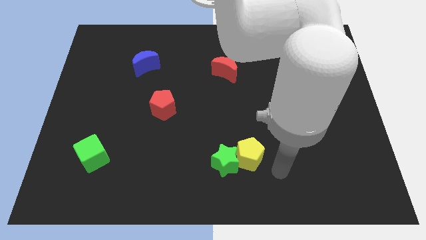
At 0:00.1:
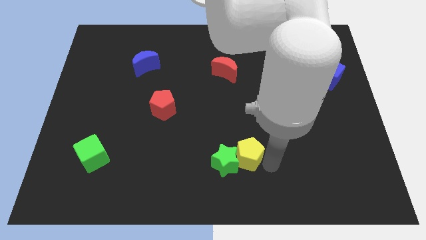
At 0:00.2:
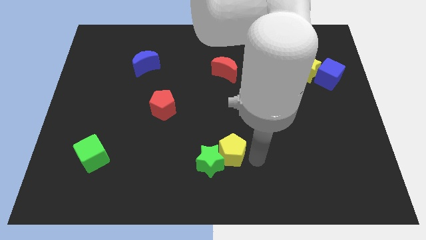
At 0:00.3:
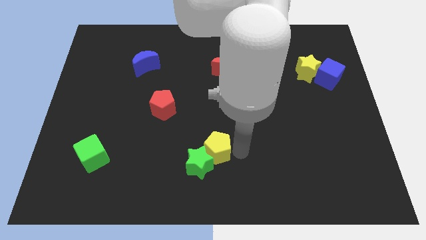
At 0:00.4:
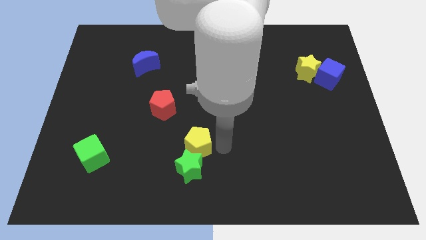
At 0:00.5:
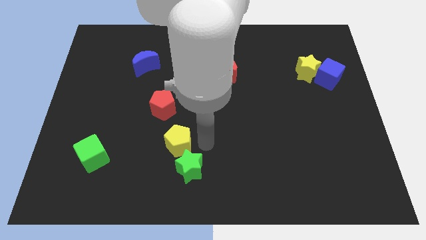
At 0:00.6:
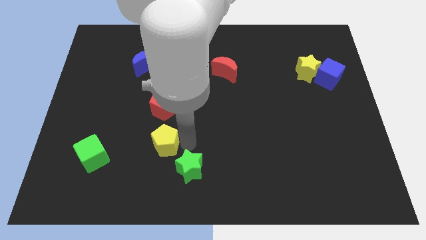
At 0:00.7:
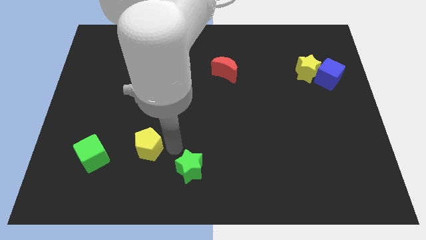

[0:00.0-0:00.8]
pull the green star apart from the yellow pentagon

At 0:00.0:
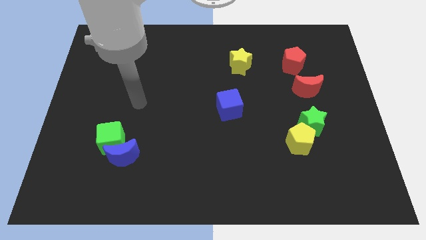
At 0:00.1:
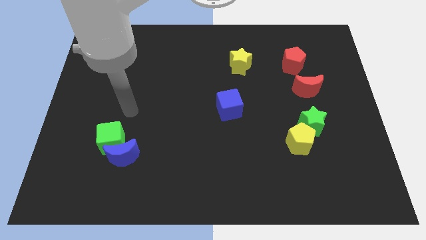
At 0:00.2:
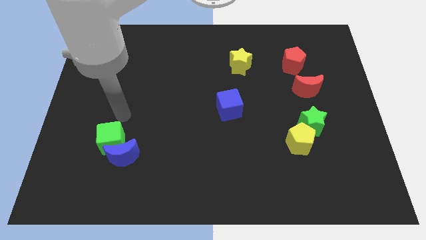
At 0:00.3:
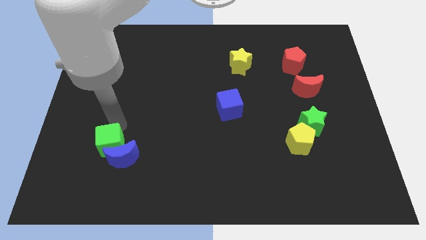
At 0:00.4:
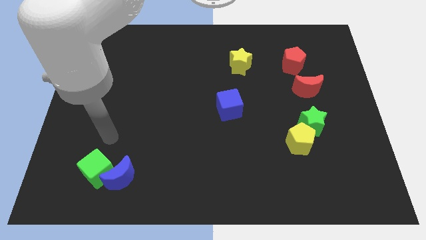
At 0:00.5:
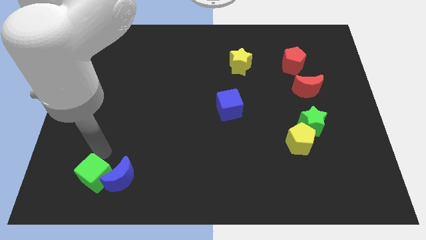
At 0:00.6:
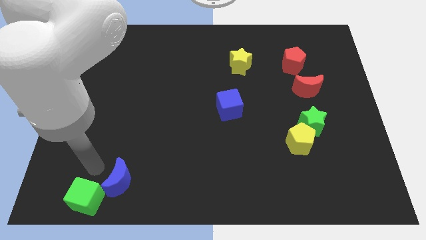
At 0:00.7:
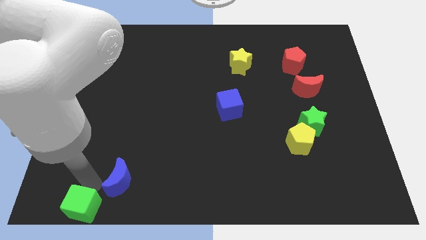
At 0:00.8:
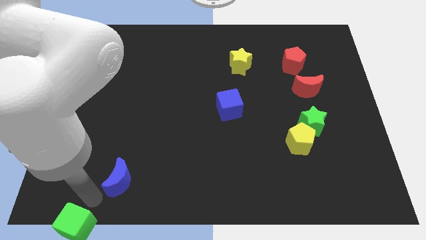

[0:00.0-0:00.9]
separate the blue moon from the green cube

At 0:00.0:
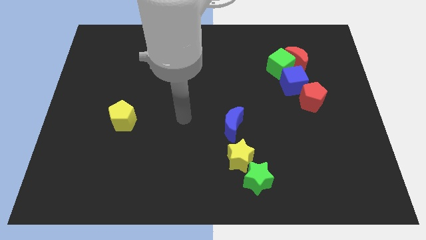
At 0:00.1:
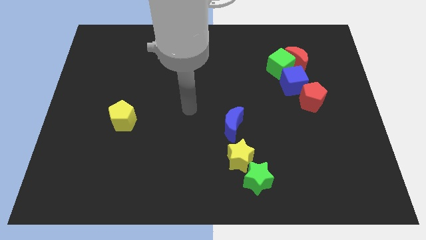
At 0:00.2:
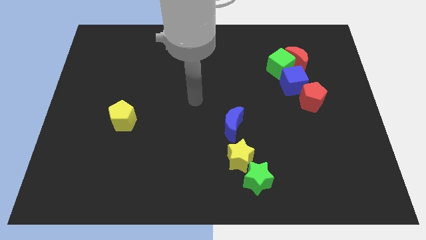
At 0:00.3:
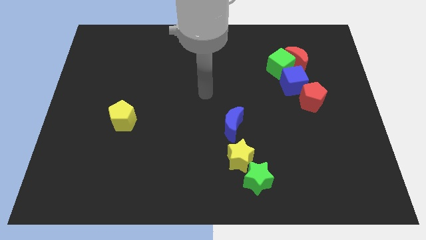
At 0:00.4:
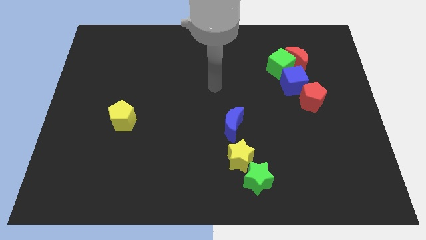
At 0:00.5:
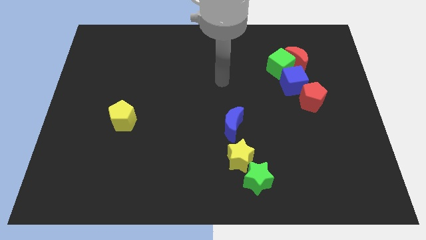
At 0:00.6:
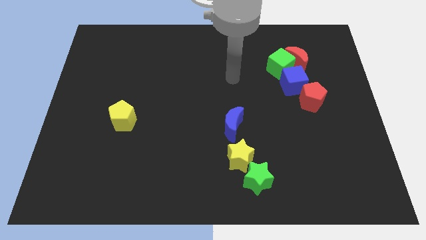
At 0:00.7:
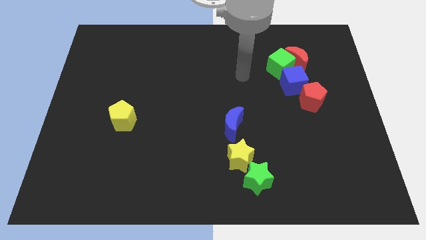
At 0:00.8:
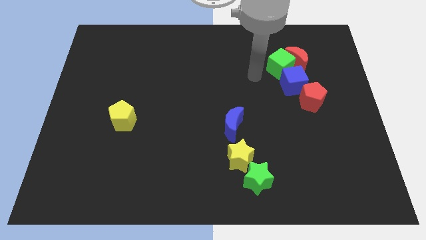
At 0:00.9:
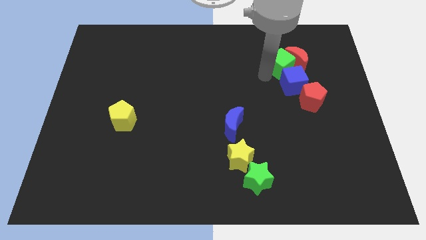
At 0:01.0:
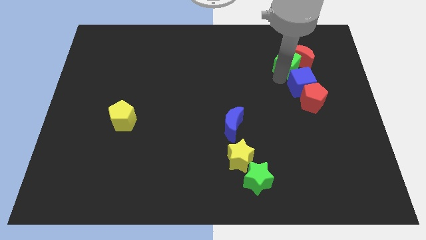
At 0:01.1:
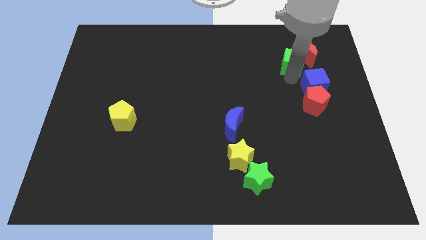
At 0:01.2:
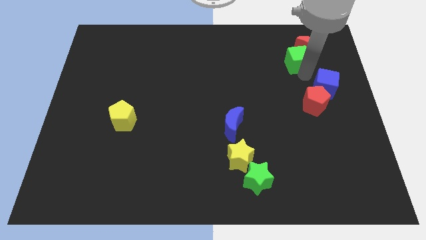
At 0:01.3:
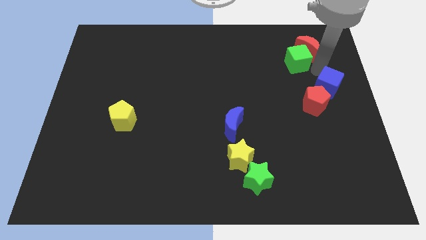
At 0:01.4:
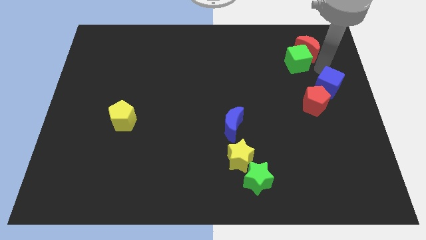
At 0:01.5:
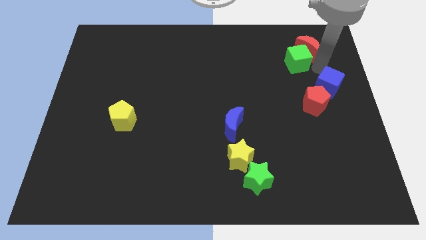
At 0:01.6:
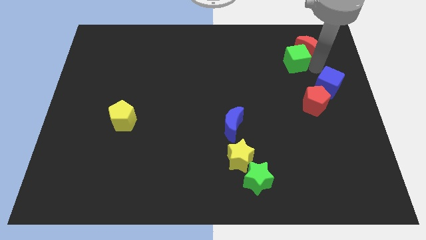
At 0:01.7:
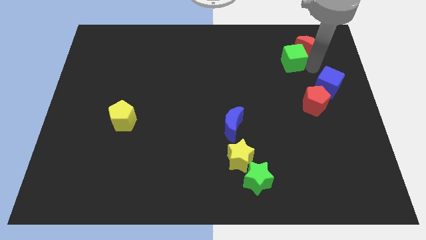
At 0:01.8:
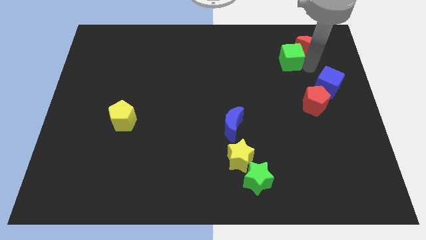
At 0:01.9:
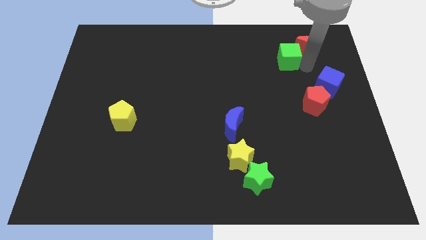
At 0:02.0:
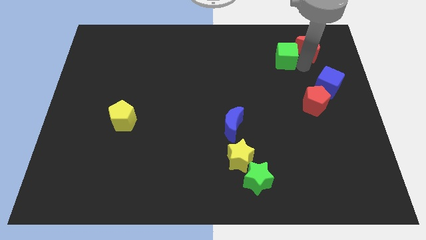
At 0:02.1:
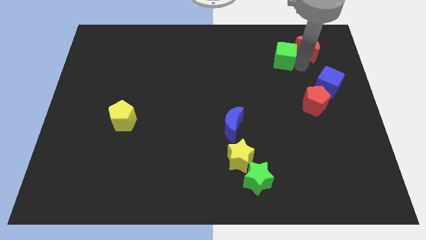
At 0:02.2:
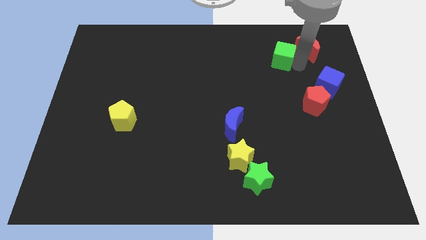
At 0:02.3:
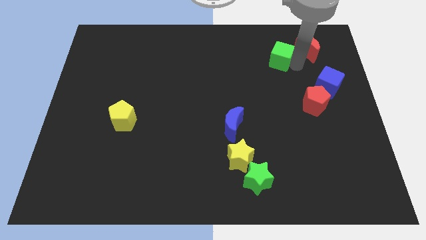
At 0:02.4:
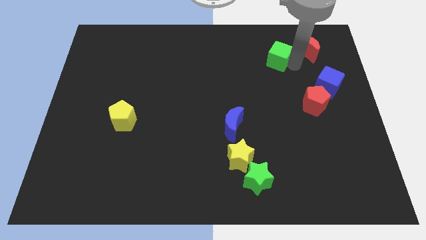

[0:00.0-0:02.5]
move the green cube away from the red moon and blue cube

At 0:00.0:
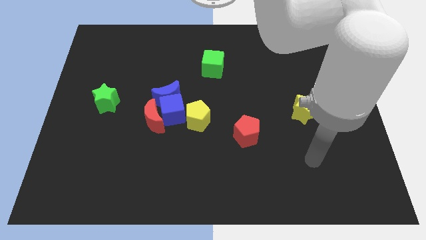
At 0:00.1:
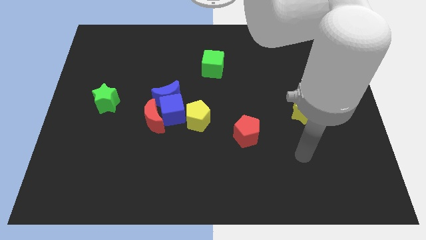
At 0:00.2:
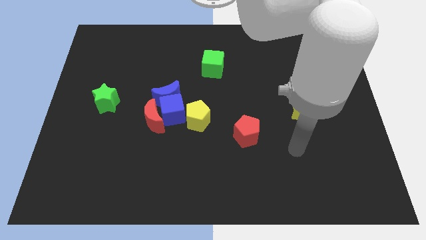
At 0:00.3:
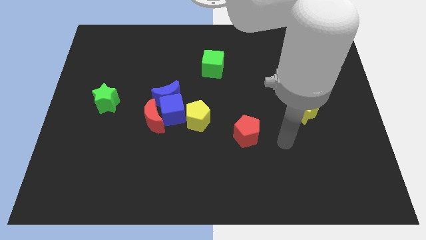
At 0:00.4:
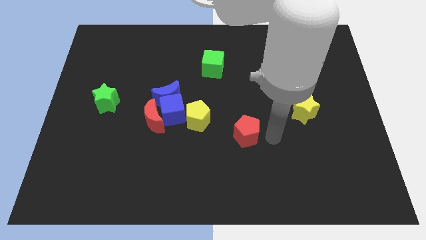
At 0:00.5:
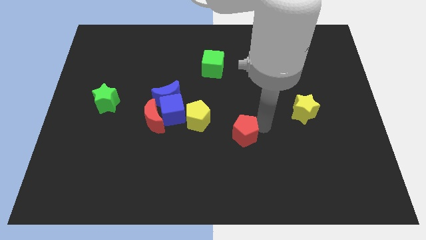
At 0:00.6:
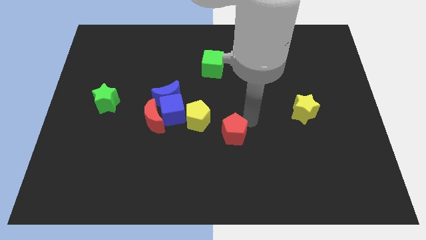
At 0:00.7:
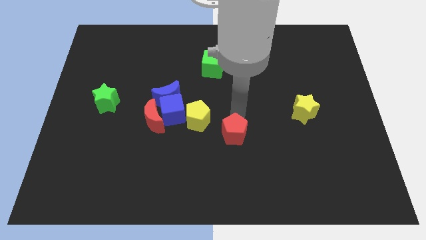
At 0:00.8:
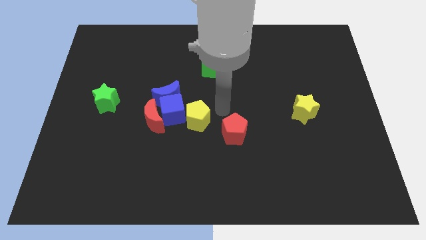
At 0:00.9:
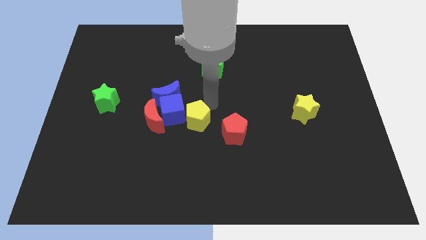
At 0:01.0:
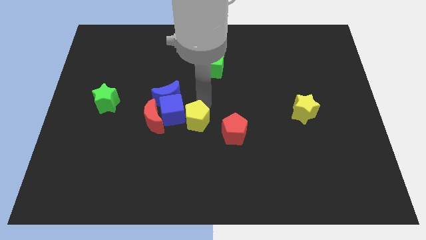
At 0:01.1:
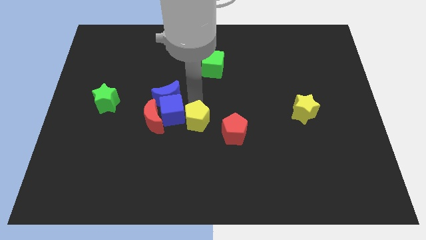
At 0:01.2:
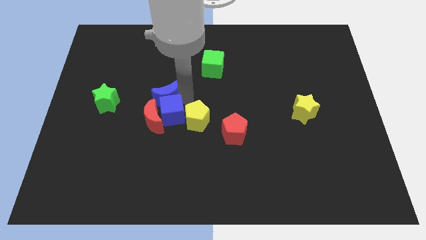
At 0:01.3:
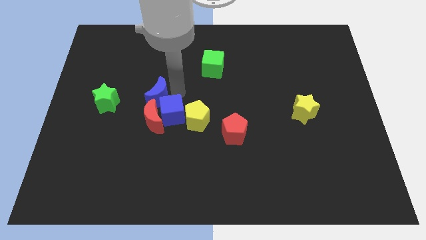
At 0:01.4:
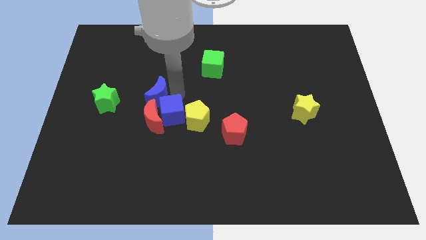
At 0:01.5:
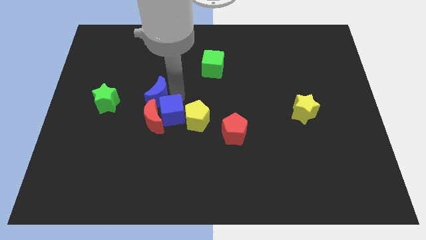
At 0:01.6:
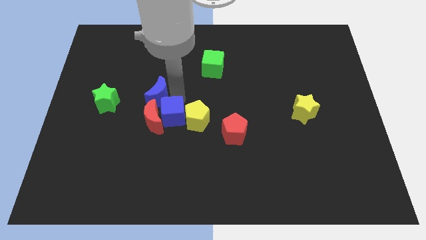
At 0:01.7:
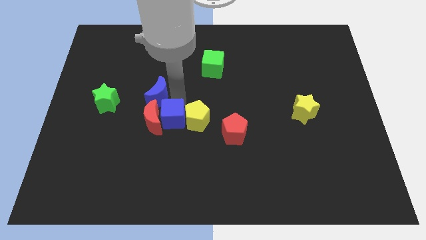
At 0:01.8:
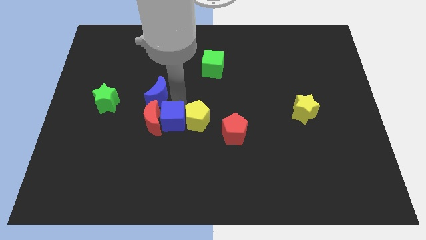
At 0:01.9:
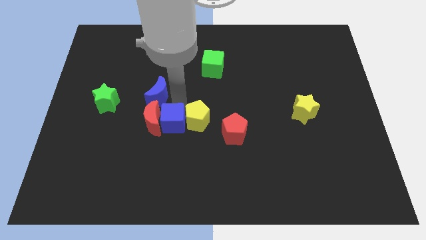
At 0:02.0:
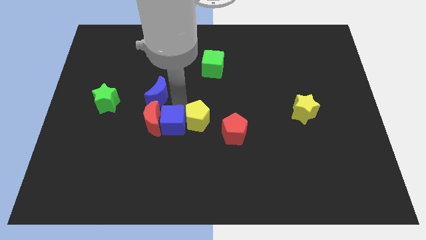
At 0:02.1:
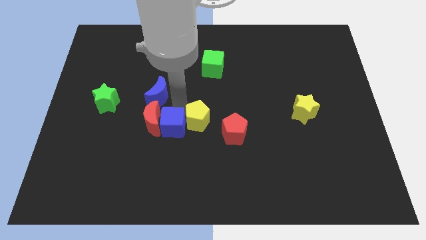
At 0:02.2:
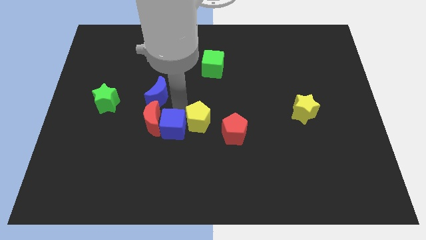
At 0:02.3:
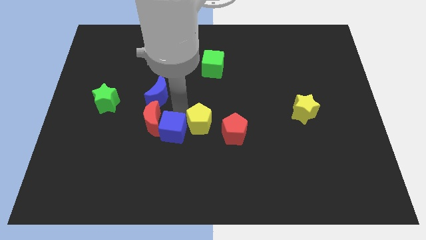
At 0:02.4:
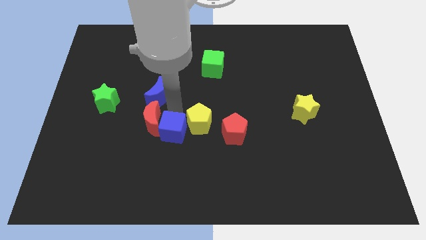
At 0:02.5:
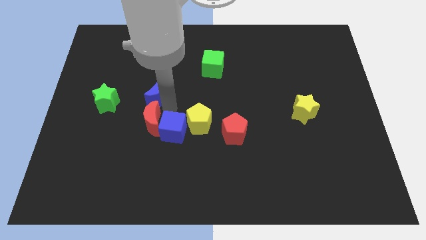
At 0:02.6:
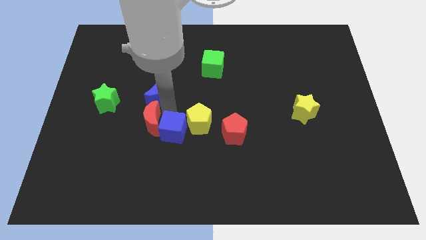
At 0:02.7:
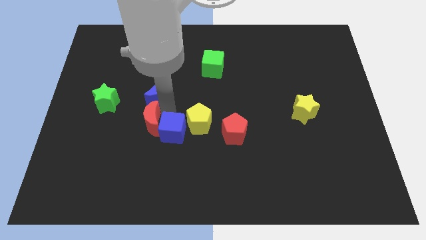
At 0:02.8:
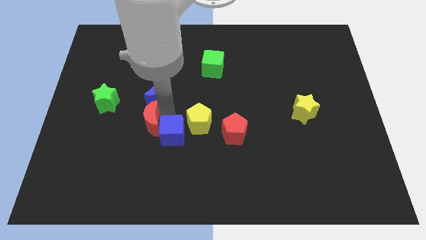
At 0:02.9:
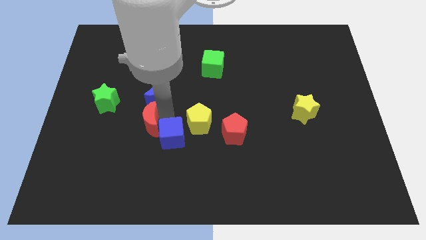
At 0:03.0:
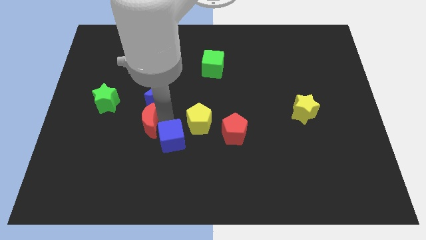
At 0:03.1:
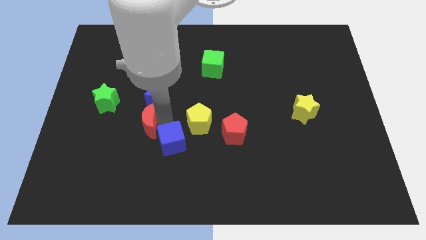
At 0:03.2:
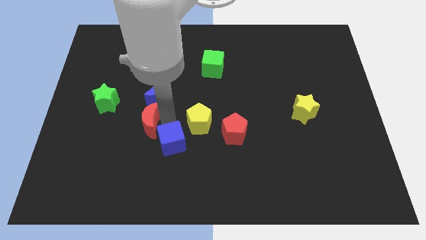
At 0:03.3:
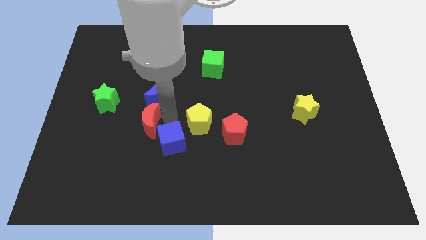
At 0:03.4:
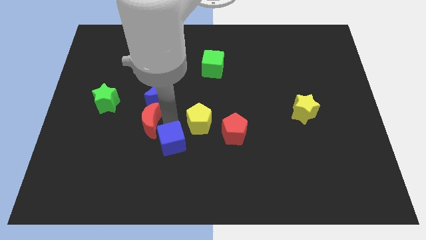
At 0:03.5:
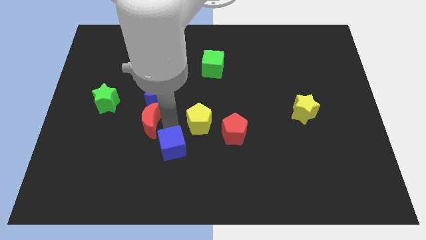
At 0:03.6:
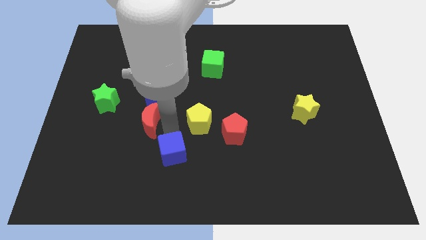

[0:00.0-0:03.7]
separate the blue cube from the group of blocks

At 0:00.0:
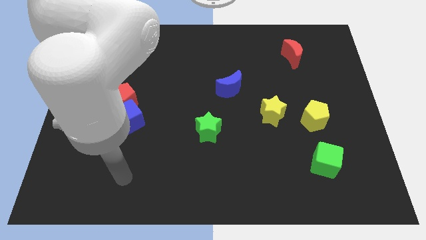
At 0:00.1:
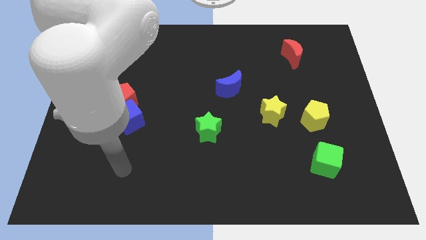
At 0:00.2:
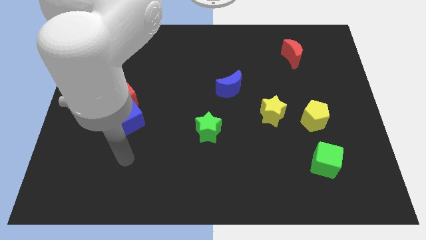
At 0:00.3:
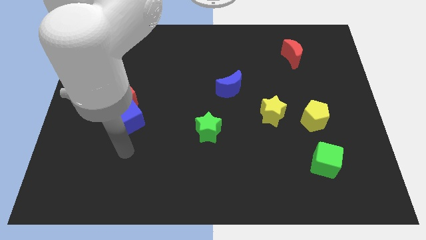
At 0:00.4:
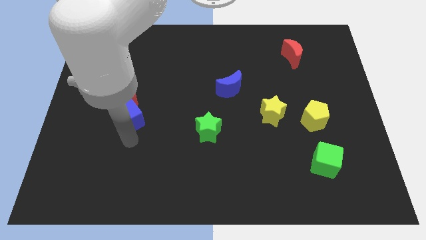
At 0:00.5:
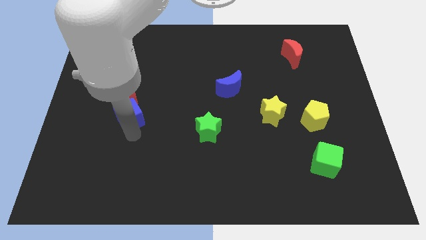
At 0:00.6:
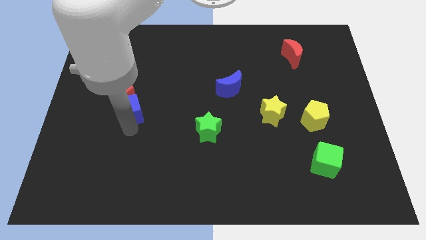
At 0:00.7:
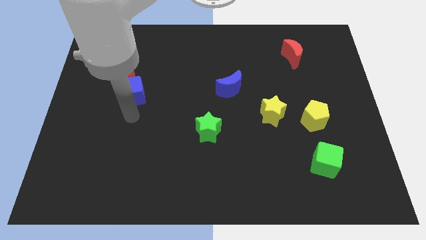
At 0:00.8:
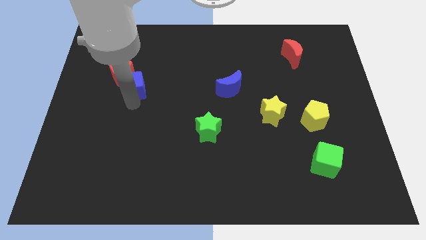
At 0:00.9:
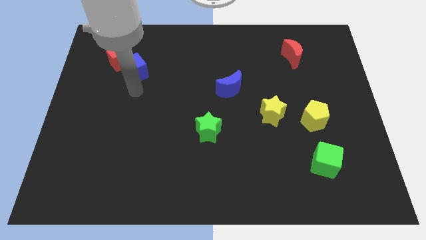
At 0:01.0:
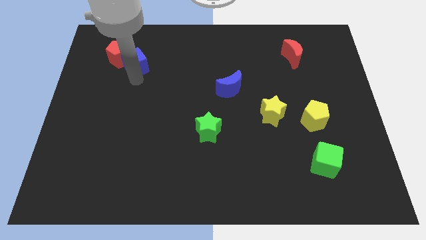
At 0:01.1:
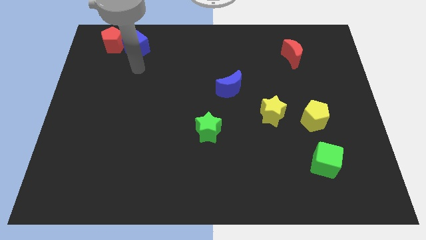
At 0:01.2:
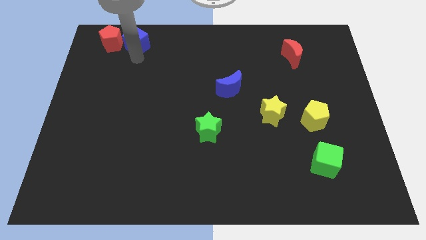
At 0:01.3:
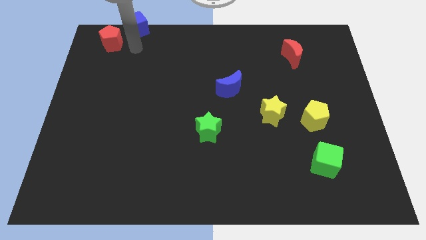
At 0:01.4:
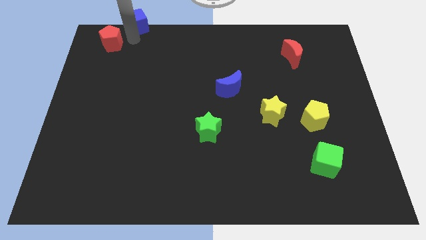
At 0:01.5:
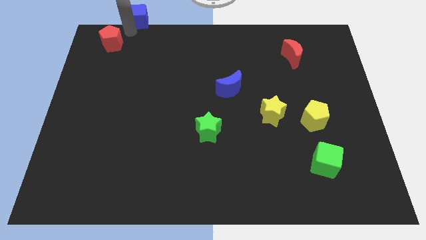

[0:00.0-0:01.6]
move the red pentagon away from the blue cube
